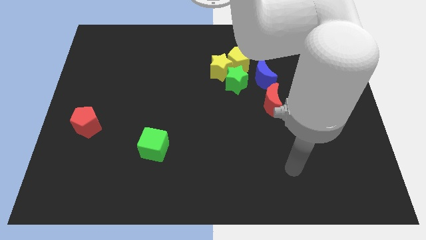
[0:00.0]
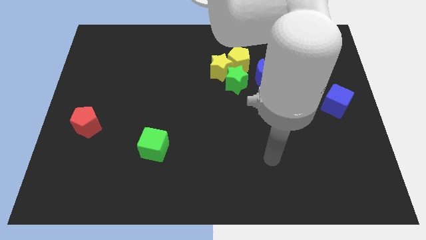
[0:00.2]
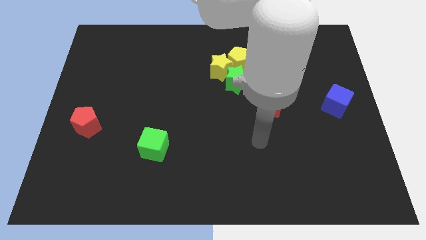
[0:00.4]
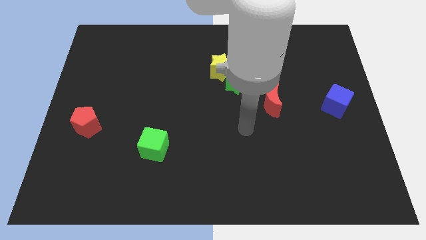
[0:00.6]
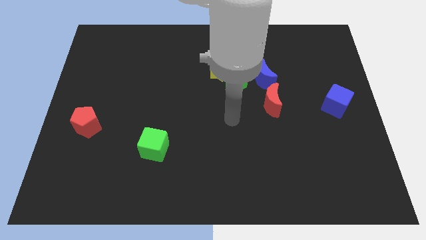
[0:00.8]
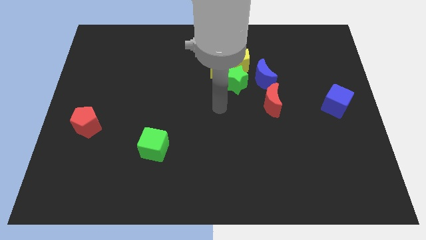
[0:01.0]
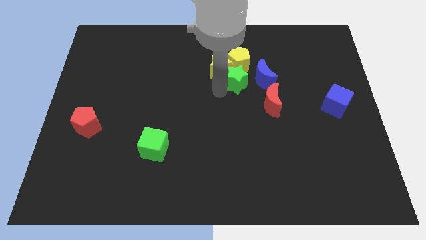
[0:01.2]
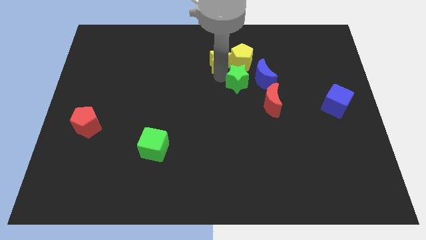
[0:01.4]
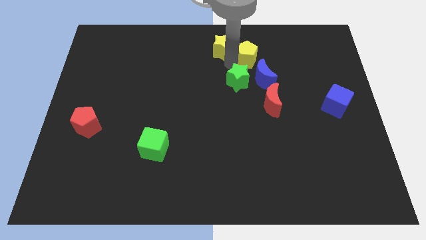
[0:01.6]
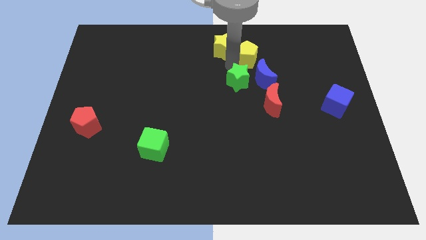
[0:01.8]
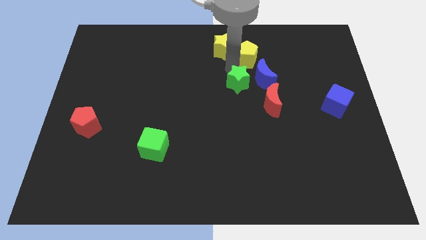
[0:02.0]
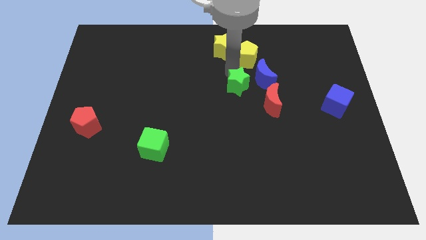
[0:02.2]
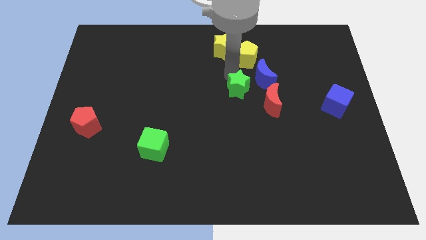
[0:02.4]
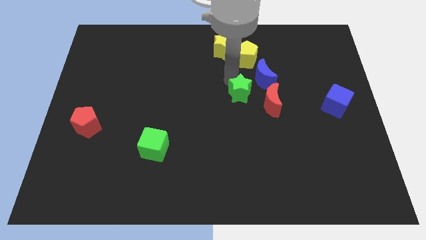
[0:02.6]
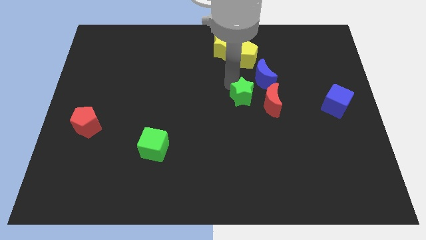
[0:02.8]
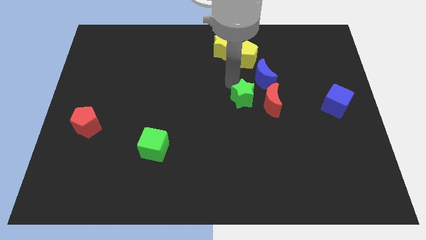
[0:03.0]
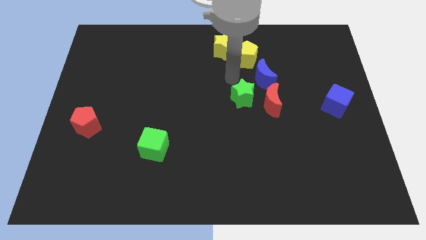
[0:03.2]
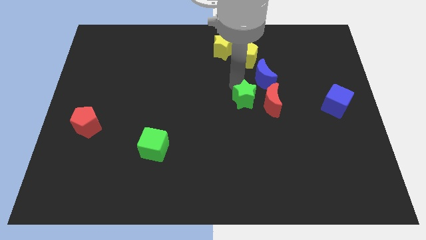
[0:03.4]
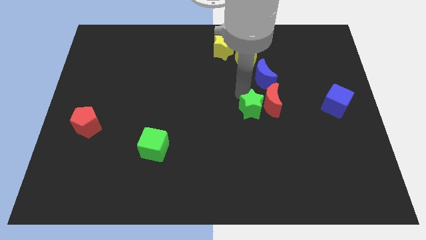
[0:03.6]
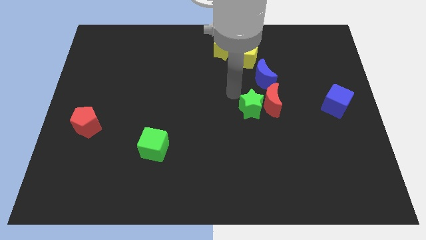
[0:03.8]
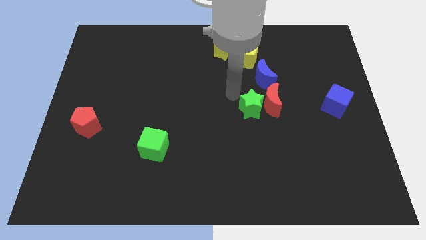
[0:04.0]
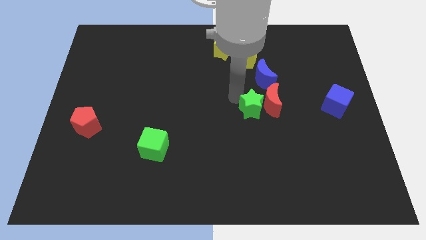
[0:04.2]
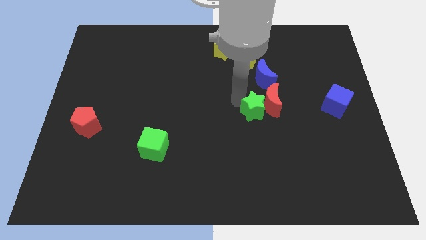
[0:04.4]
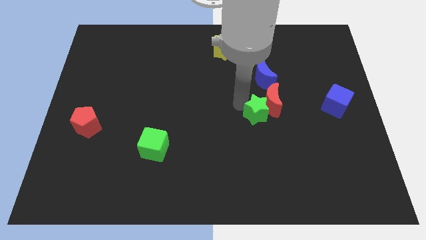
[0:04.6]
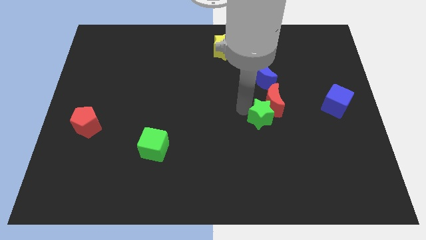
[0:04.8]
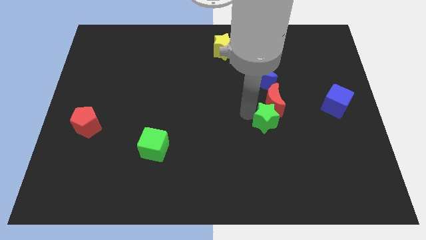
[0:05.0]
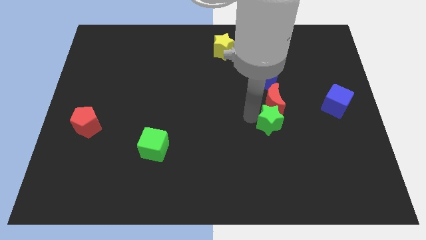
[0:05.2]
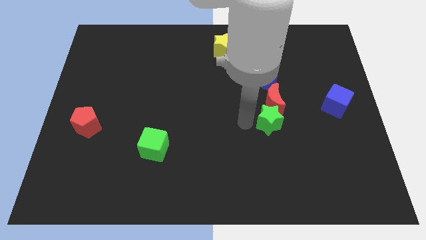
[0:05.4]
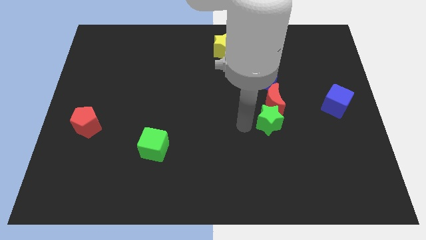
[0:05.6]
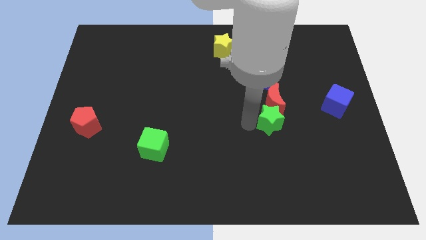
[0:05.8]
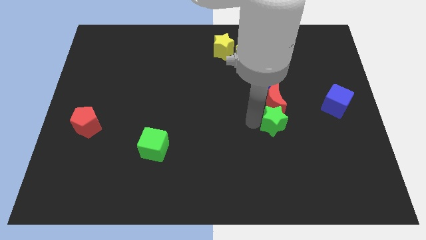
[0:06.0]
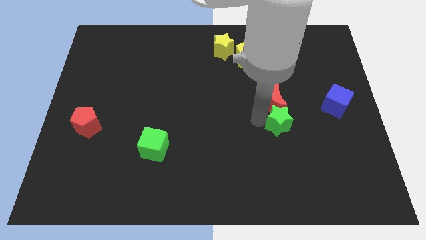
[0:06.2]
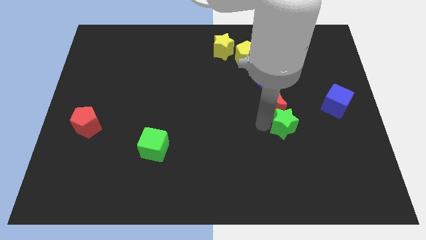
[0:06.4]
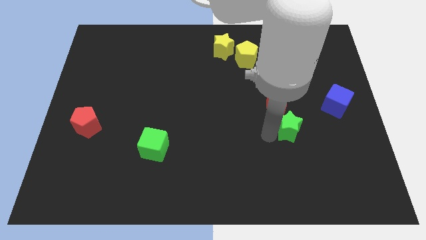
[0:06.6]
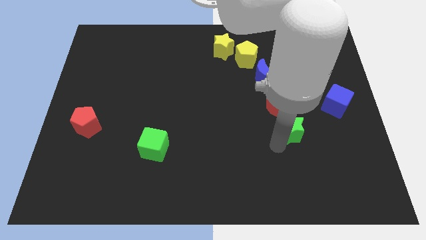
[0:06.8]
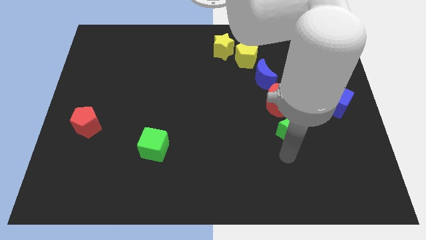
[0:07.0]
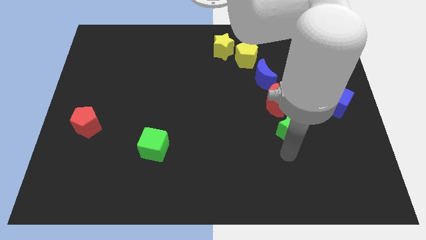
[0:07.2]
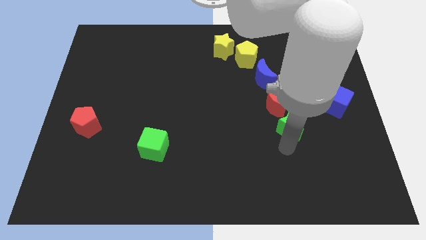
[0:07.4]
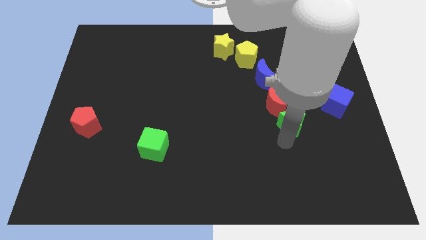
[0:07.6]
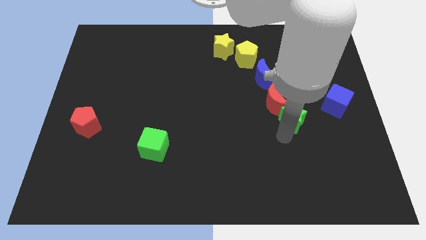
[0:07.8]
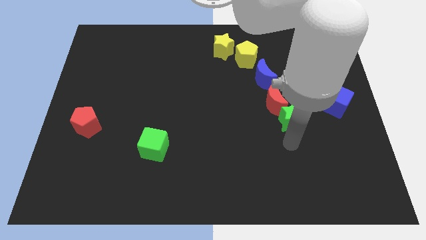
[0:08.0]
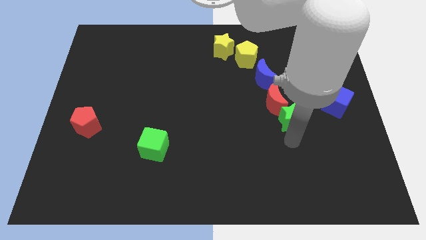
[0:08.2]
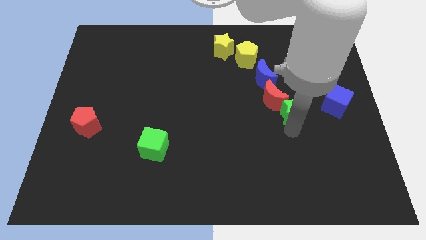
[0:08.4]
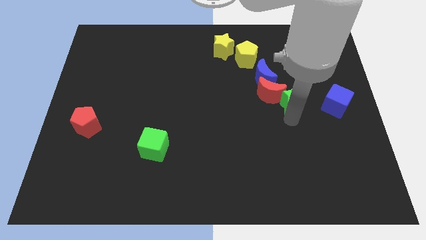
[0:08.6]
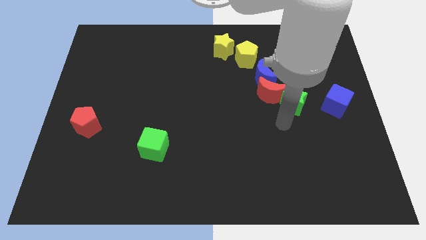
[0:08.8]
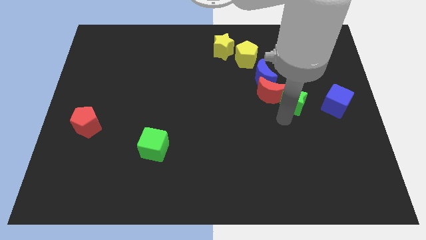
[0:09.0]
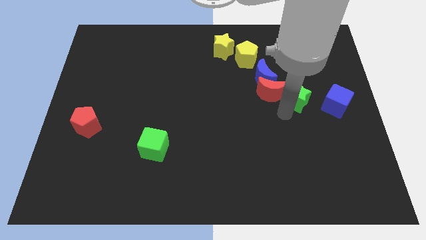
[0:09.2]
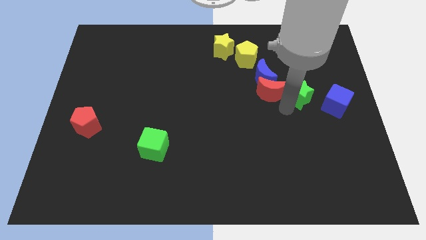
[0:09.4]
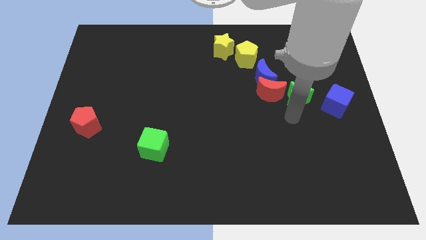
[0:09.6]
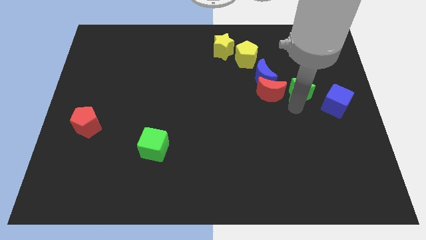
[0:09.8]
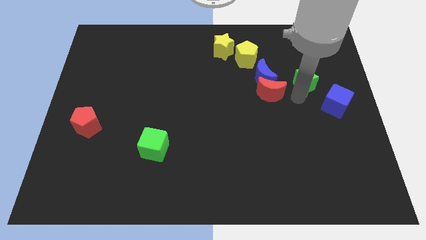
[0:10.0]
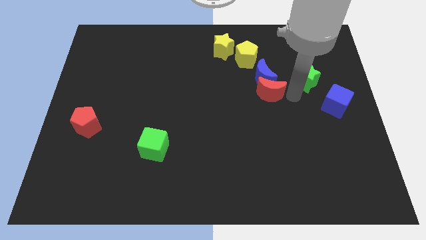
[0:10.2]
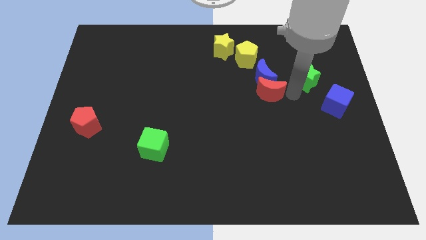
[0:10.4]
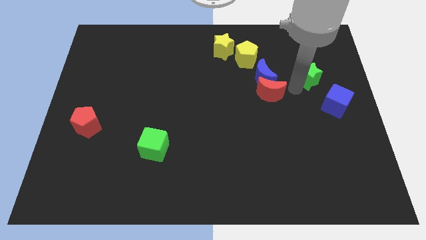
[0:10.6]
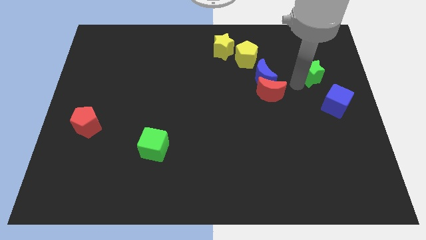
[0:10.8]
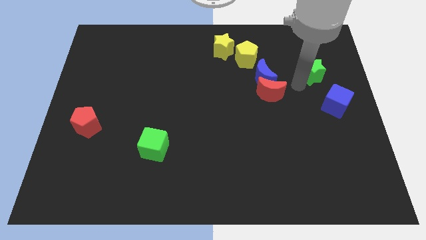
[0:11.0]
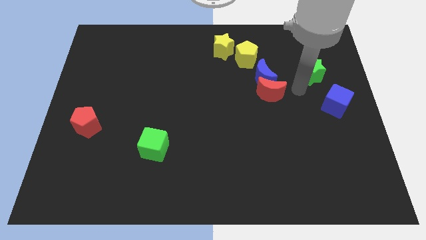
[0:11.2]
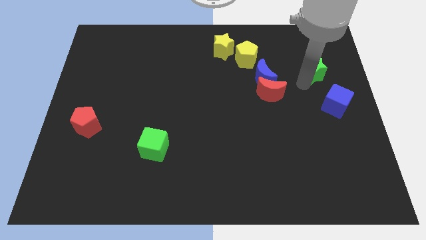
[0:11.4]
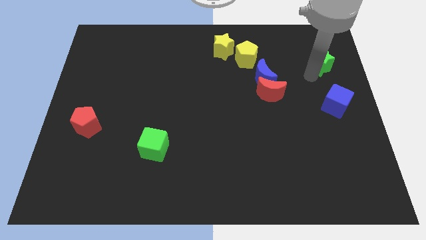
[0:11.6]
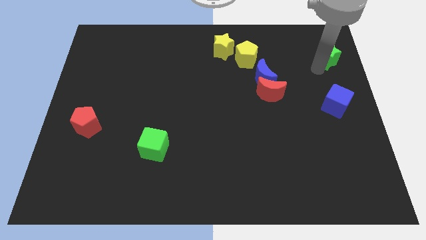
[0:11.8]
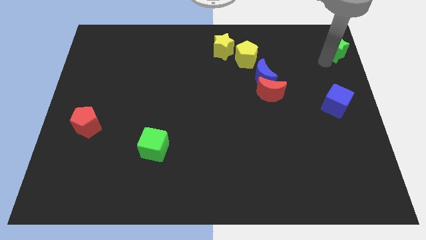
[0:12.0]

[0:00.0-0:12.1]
push the green star to the top right
